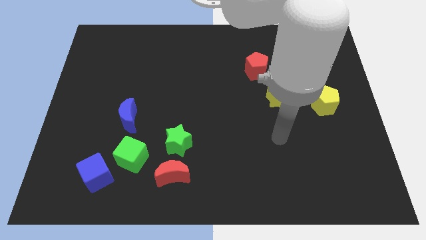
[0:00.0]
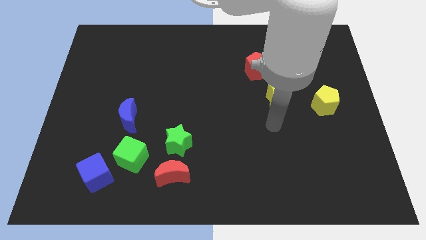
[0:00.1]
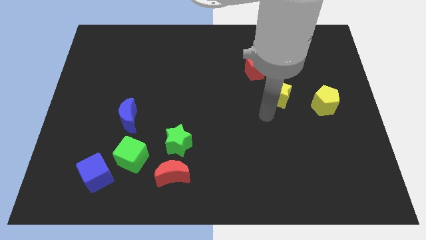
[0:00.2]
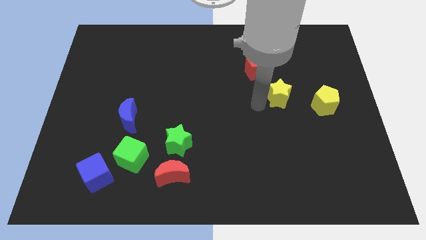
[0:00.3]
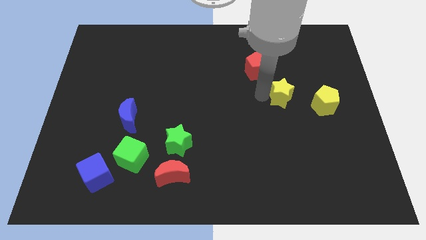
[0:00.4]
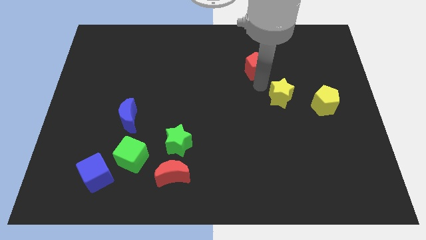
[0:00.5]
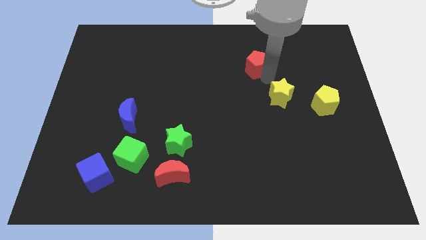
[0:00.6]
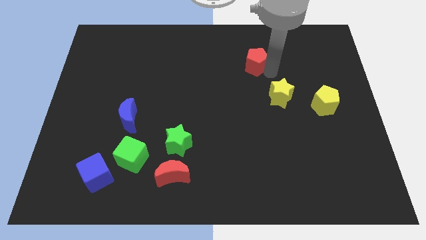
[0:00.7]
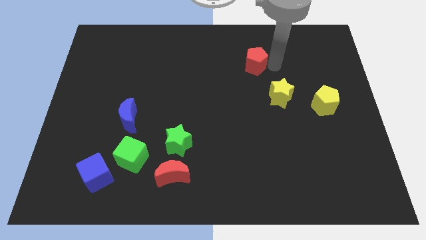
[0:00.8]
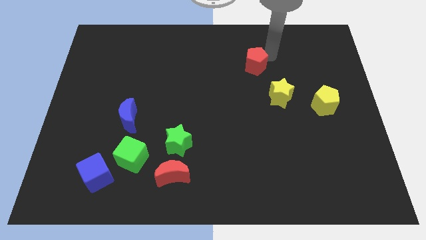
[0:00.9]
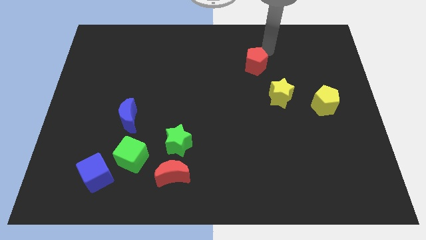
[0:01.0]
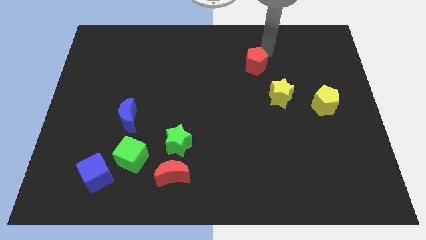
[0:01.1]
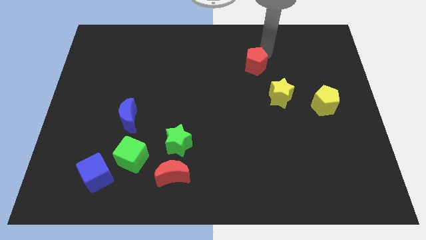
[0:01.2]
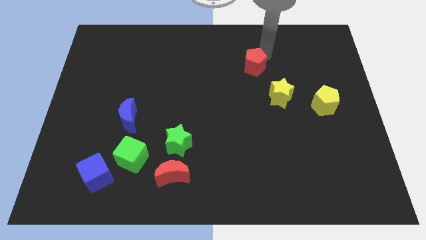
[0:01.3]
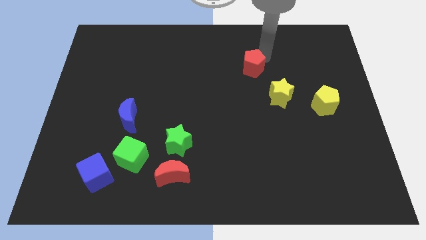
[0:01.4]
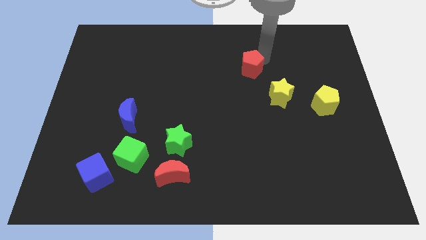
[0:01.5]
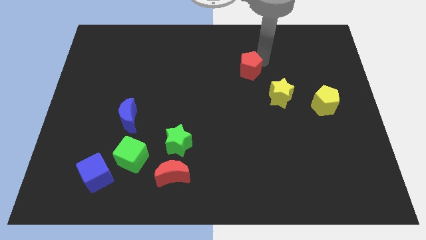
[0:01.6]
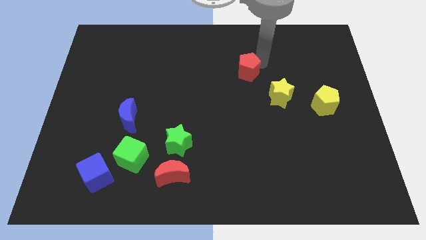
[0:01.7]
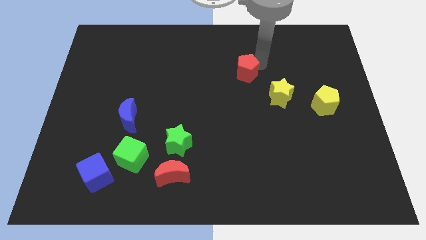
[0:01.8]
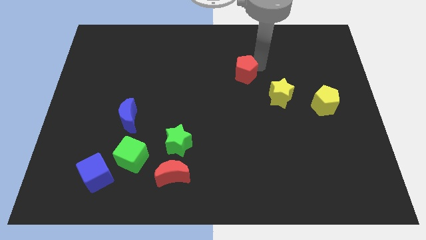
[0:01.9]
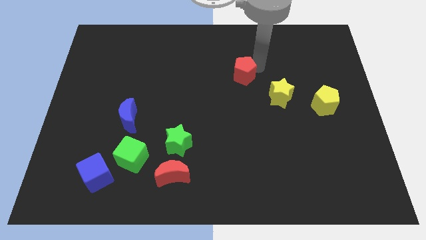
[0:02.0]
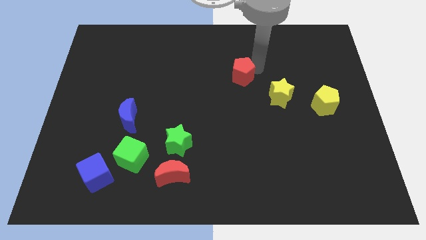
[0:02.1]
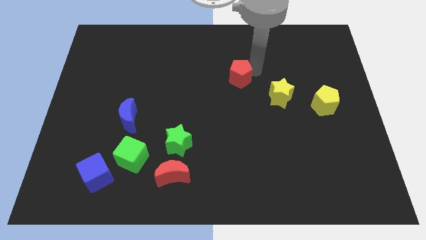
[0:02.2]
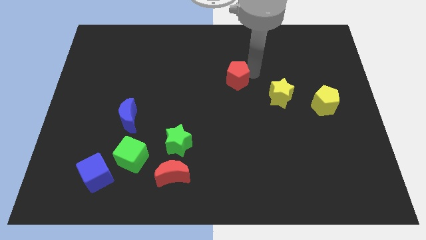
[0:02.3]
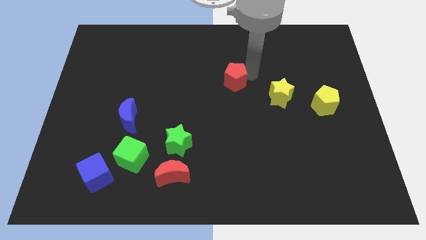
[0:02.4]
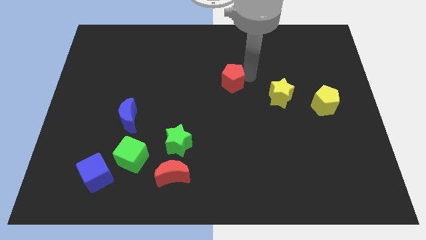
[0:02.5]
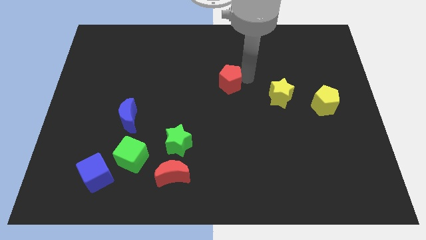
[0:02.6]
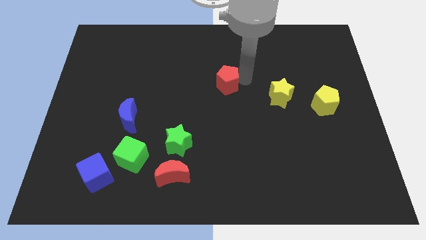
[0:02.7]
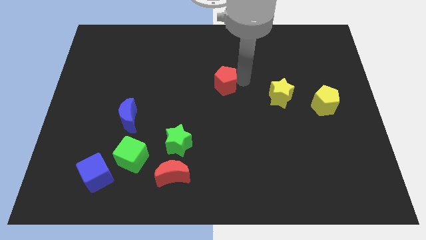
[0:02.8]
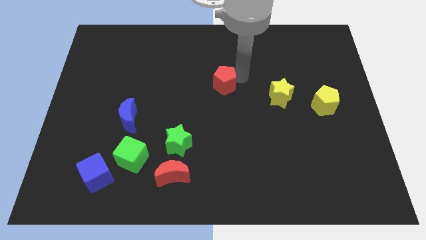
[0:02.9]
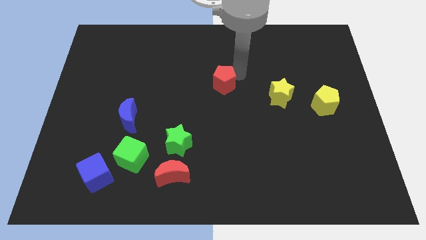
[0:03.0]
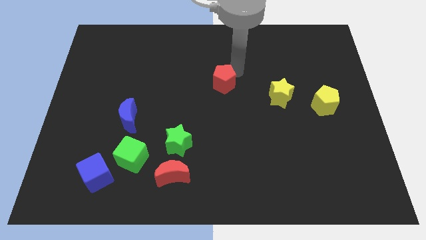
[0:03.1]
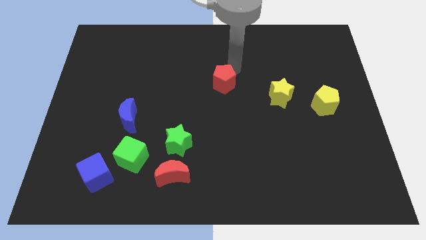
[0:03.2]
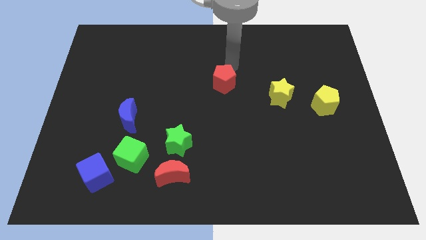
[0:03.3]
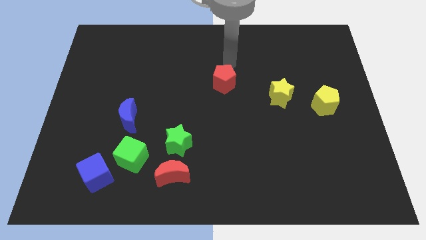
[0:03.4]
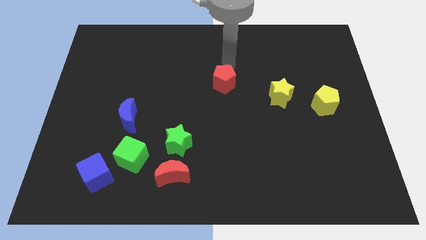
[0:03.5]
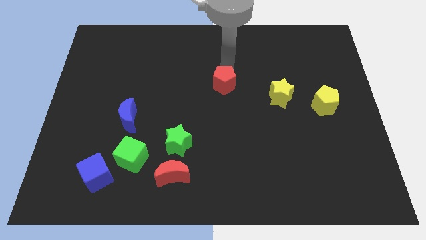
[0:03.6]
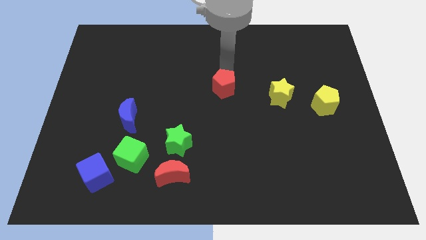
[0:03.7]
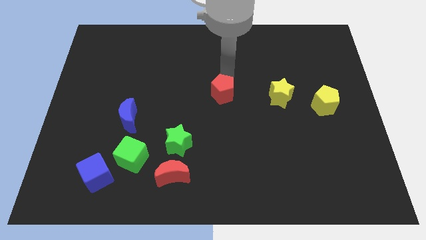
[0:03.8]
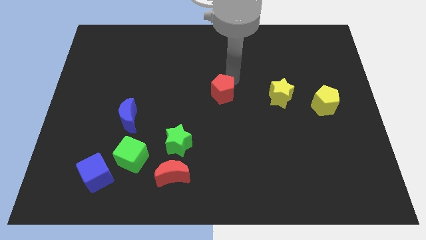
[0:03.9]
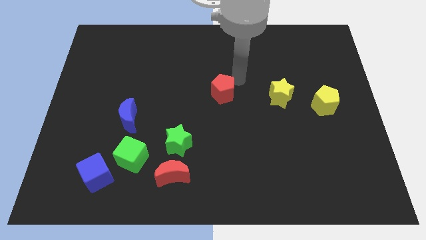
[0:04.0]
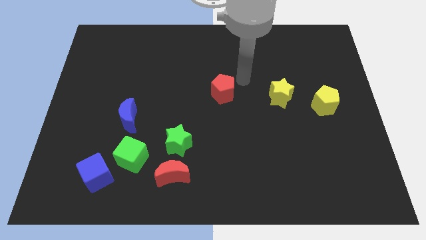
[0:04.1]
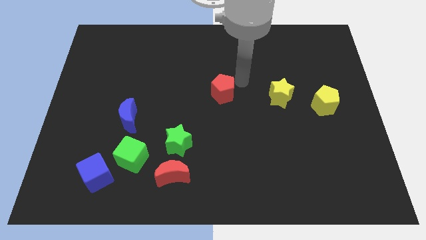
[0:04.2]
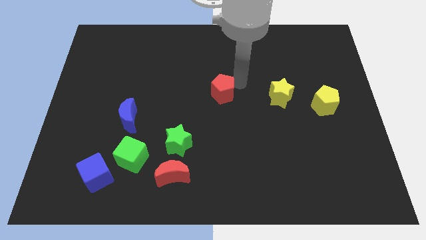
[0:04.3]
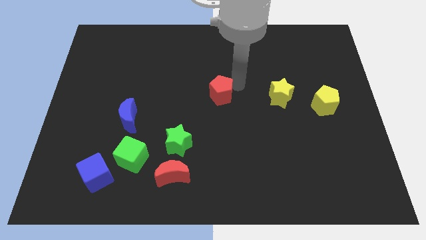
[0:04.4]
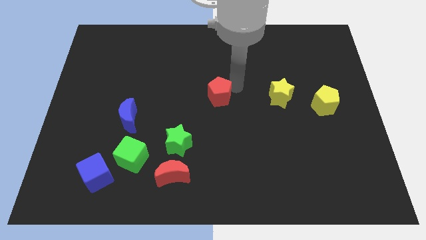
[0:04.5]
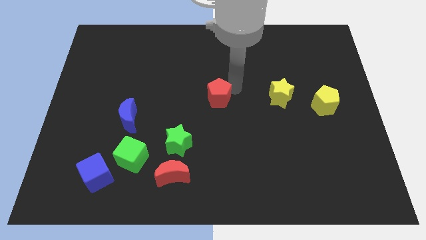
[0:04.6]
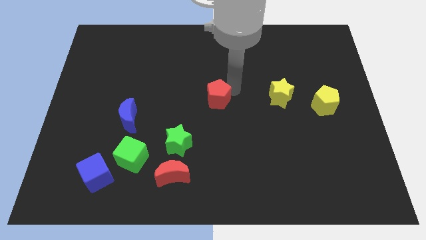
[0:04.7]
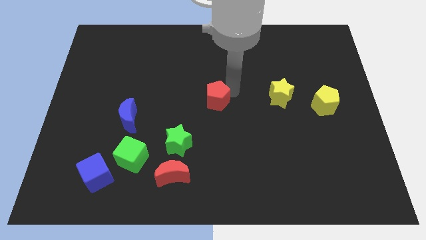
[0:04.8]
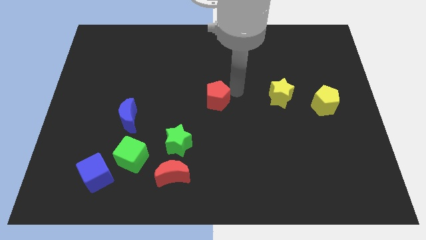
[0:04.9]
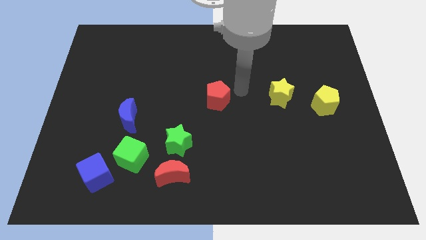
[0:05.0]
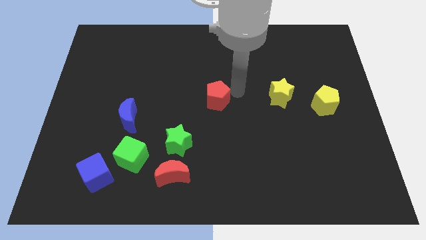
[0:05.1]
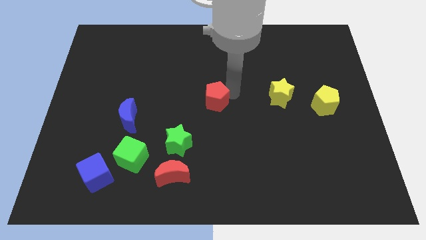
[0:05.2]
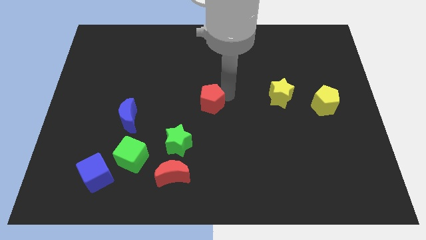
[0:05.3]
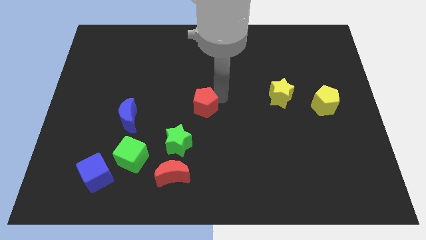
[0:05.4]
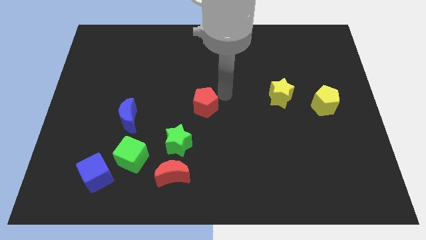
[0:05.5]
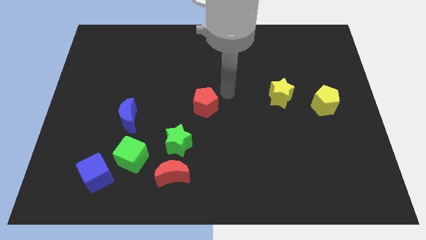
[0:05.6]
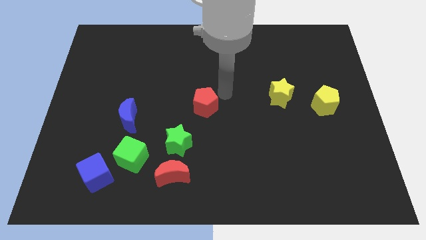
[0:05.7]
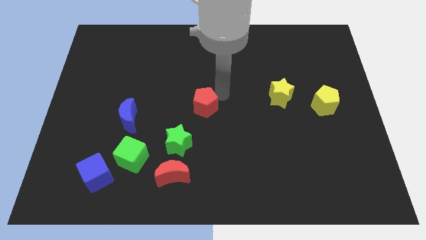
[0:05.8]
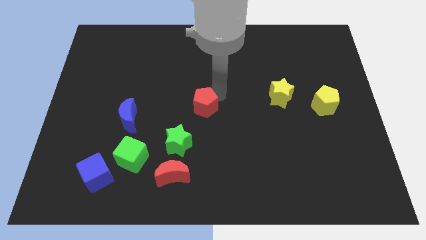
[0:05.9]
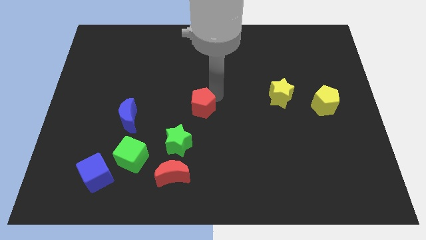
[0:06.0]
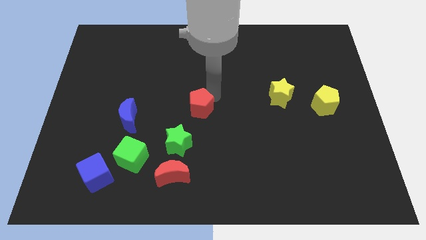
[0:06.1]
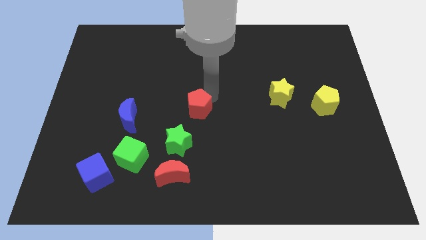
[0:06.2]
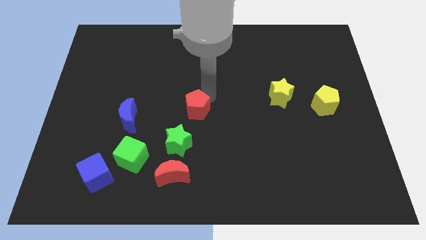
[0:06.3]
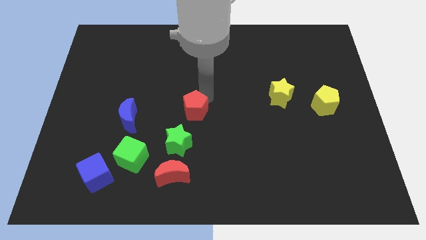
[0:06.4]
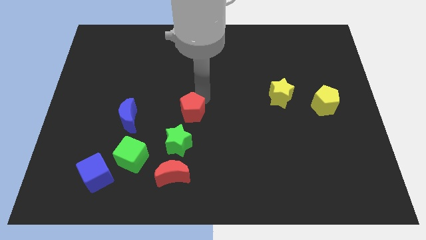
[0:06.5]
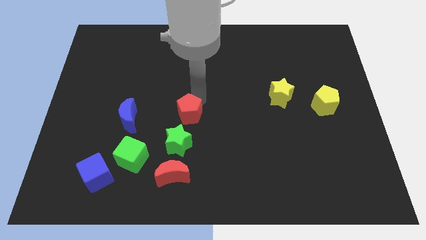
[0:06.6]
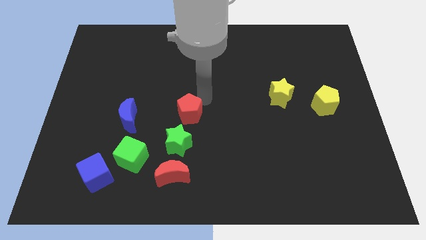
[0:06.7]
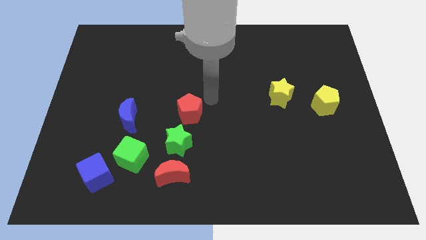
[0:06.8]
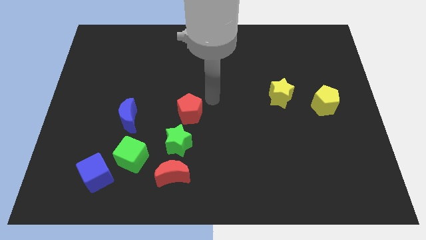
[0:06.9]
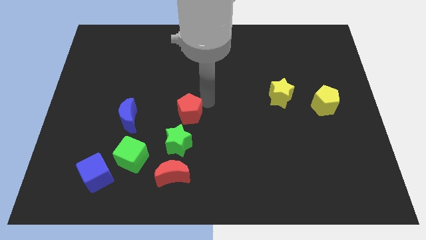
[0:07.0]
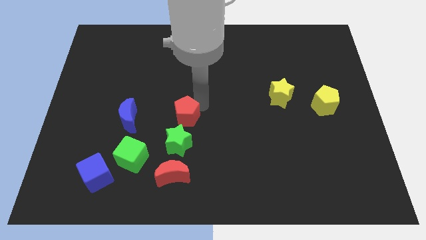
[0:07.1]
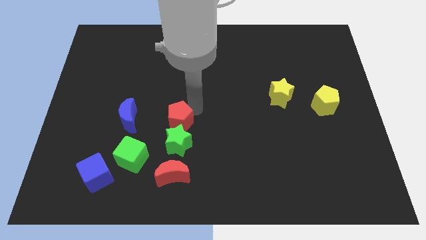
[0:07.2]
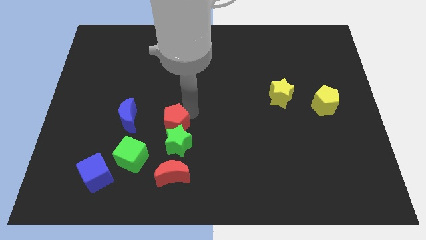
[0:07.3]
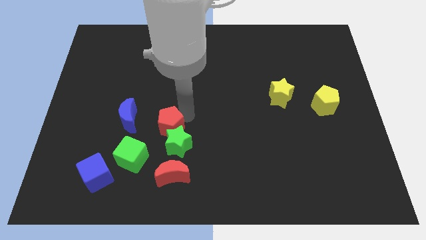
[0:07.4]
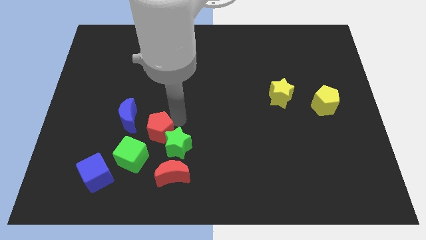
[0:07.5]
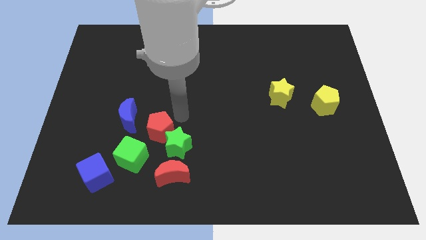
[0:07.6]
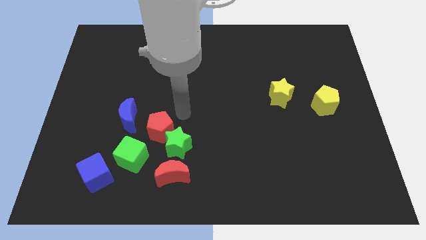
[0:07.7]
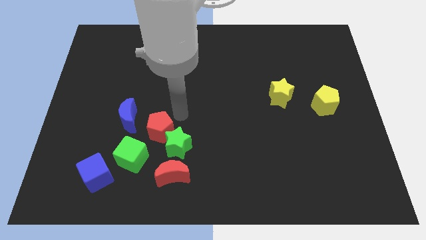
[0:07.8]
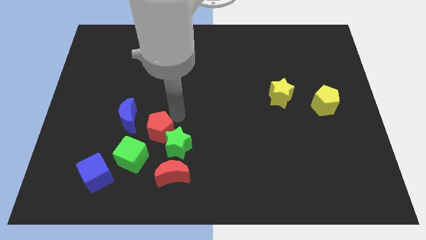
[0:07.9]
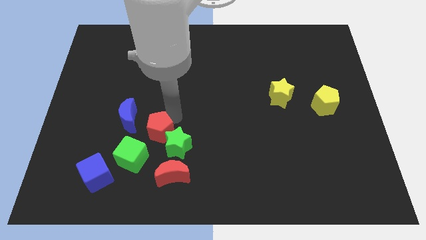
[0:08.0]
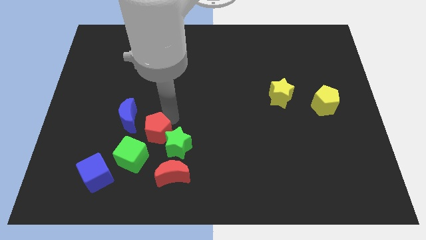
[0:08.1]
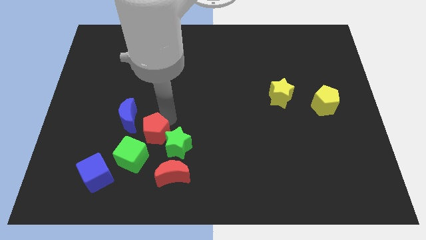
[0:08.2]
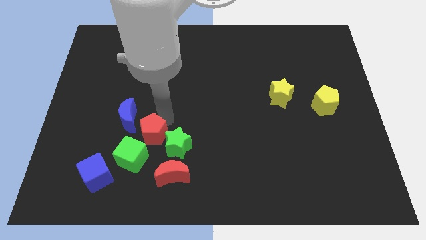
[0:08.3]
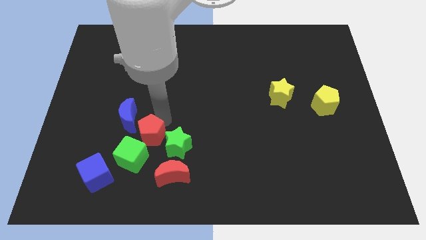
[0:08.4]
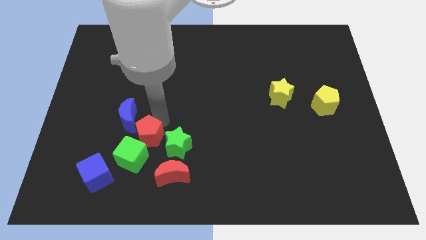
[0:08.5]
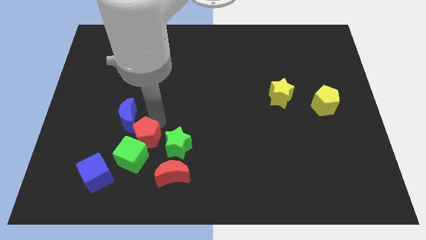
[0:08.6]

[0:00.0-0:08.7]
move the red pentagon next to the green cube
